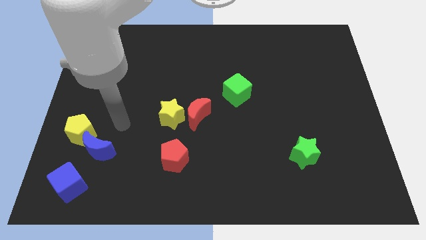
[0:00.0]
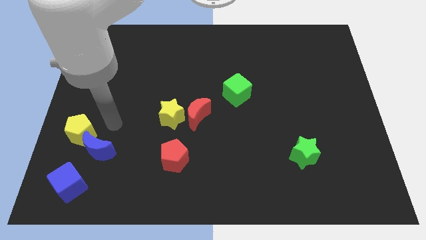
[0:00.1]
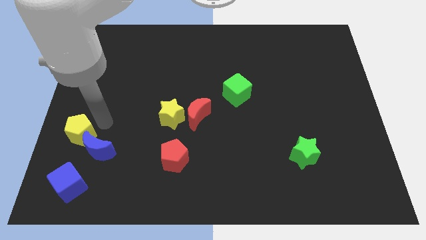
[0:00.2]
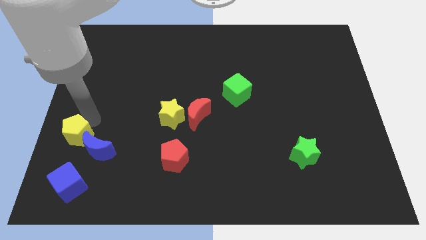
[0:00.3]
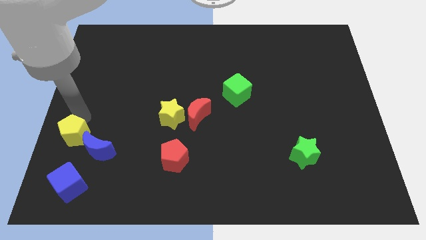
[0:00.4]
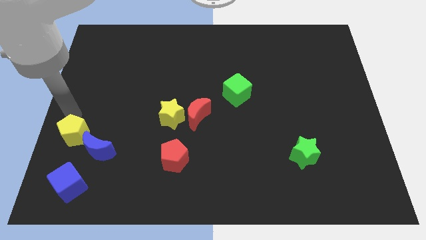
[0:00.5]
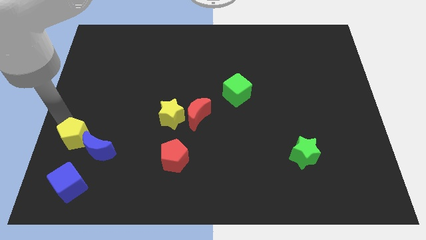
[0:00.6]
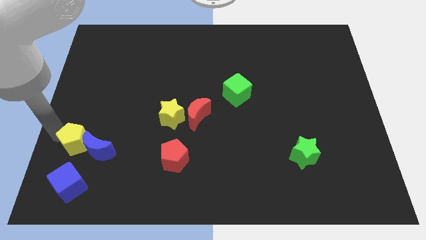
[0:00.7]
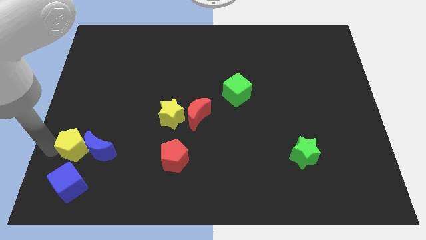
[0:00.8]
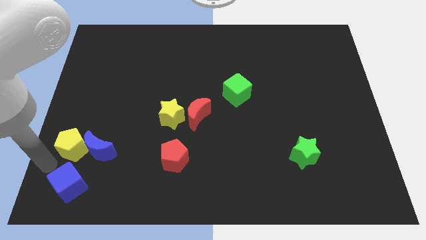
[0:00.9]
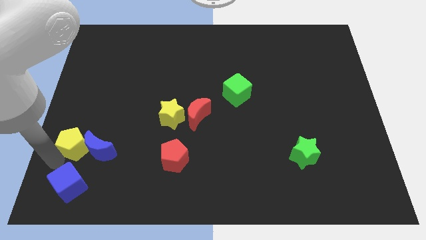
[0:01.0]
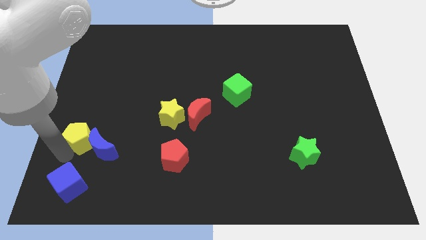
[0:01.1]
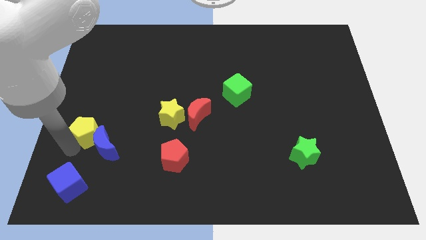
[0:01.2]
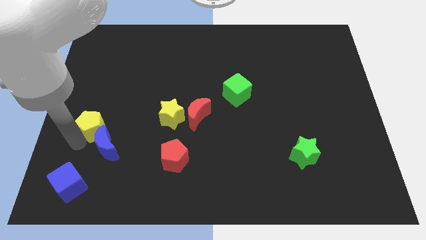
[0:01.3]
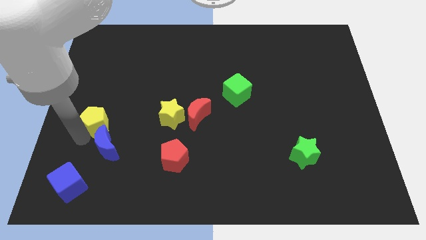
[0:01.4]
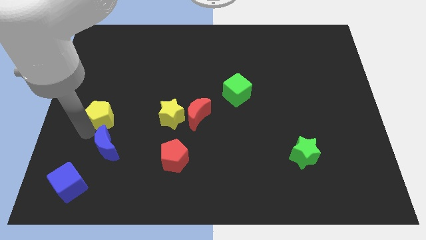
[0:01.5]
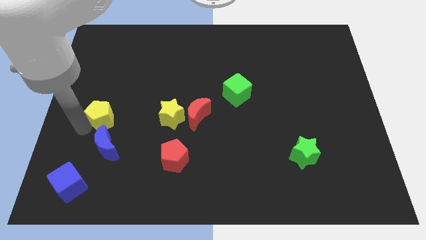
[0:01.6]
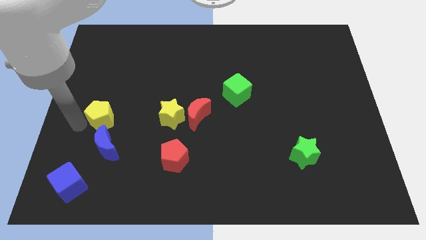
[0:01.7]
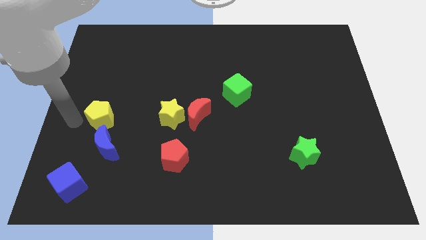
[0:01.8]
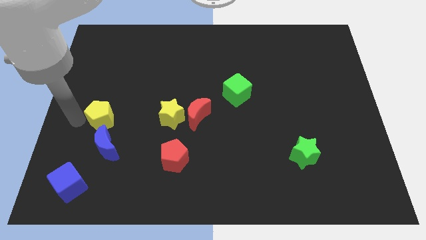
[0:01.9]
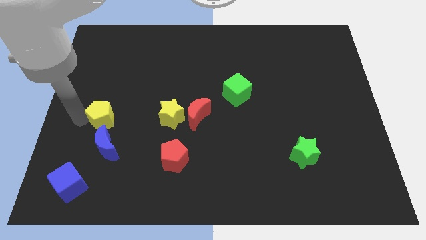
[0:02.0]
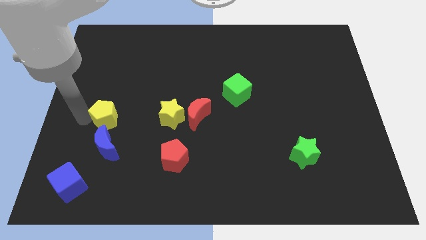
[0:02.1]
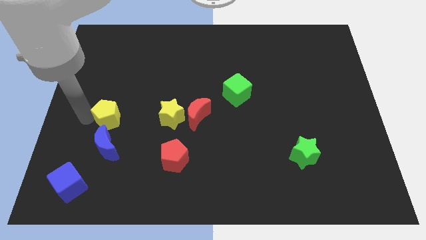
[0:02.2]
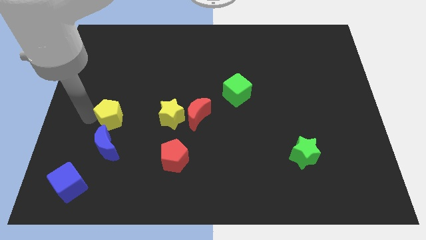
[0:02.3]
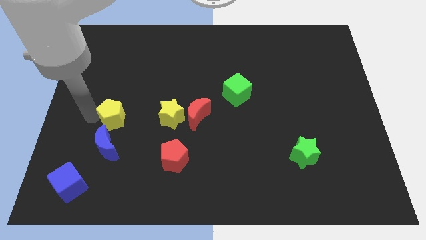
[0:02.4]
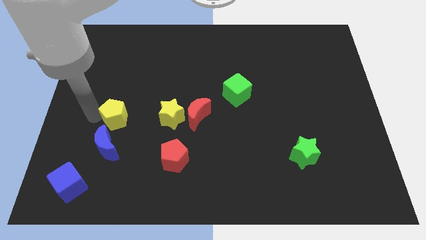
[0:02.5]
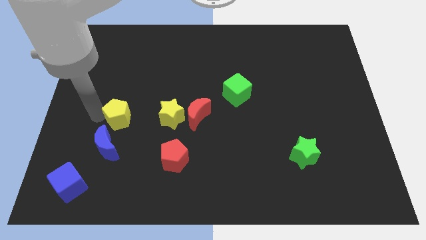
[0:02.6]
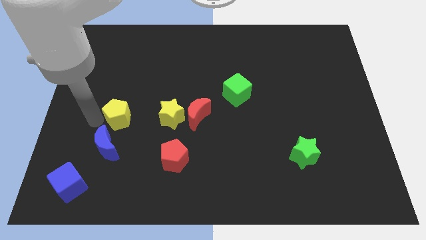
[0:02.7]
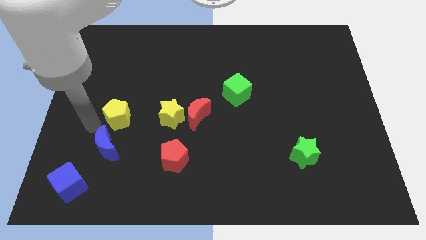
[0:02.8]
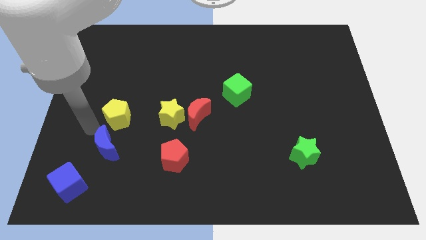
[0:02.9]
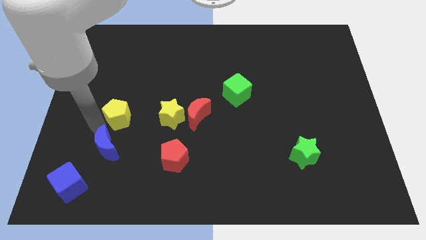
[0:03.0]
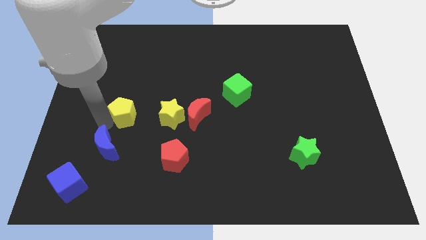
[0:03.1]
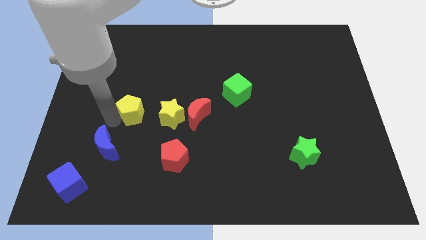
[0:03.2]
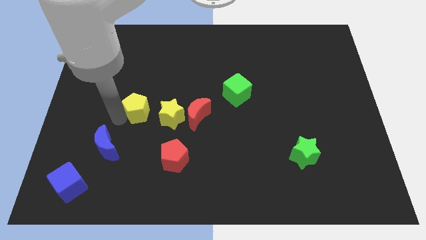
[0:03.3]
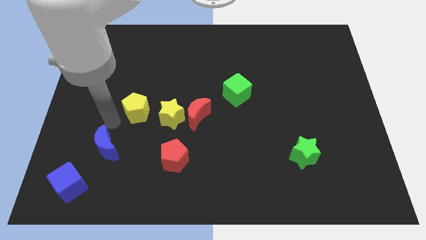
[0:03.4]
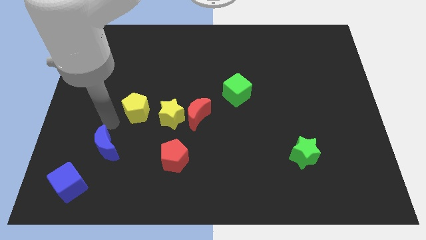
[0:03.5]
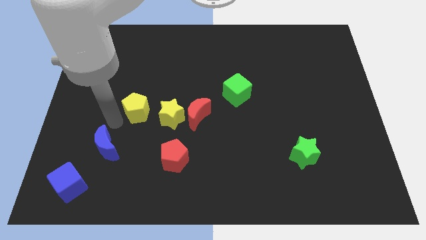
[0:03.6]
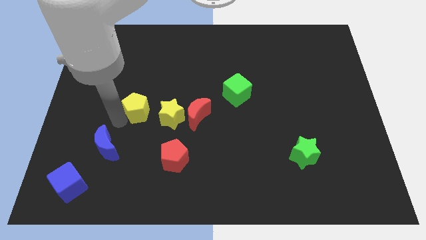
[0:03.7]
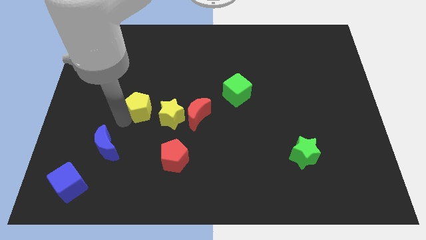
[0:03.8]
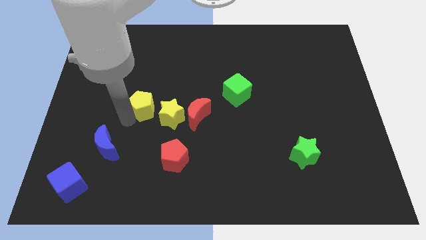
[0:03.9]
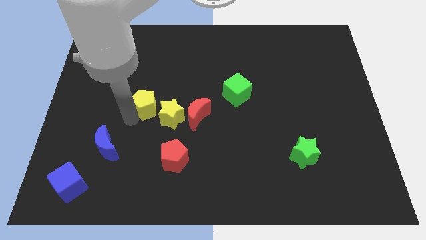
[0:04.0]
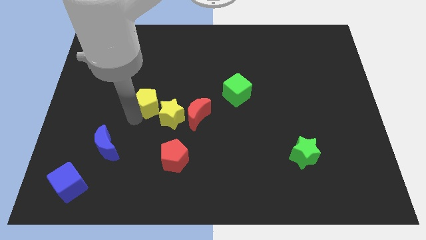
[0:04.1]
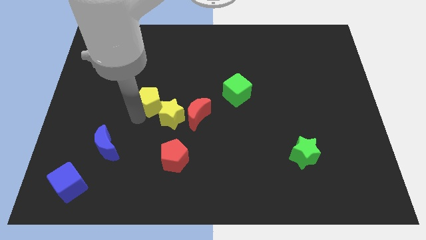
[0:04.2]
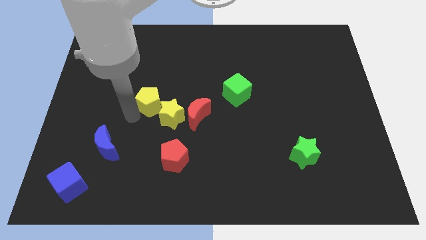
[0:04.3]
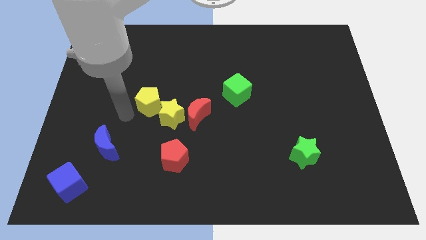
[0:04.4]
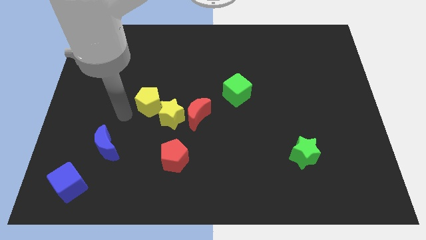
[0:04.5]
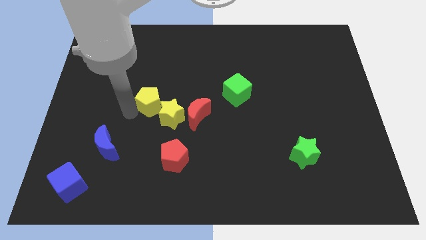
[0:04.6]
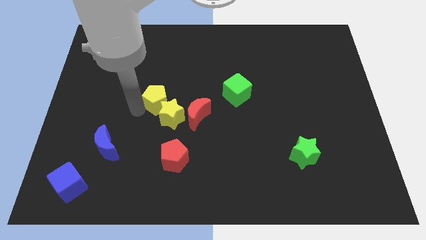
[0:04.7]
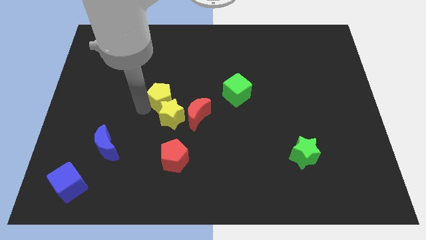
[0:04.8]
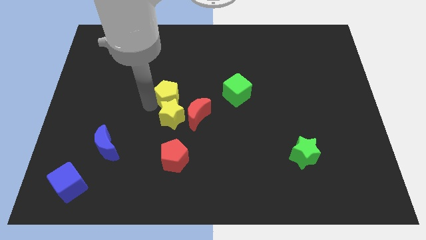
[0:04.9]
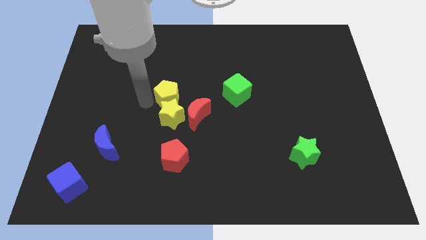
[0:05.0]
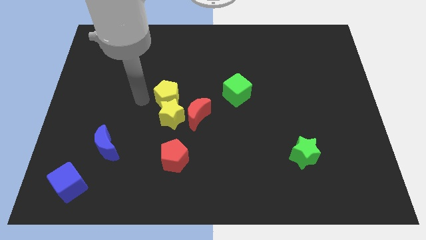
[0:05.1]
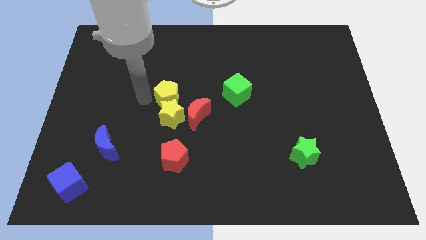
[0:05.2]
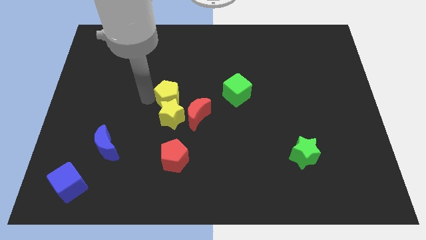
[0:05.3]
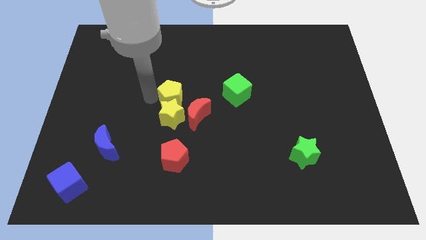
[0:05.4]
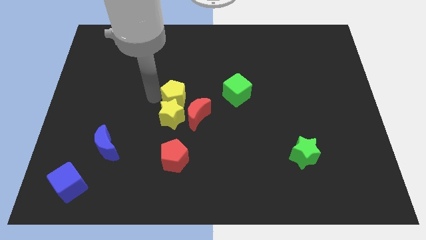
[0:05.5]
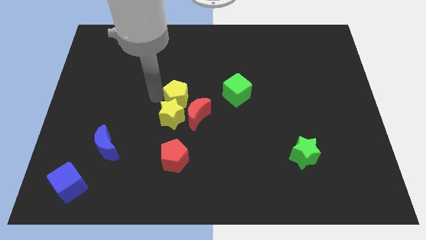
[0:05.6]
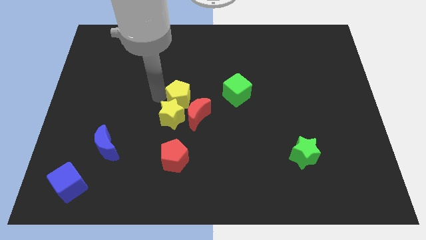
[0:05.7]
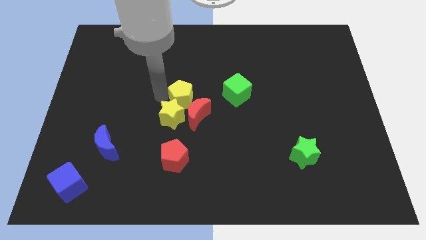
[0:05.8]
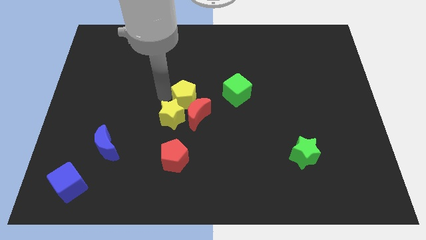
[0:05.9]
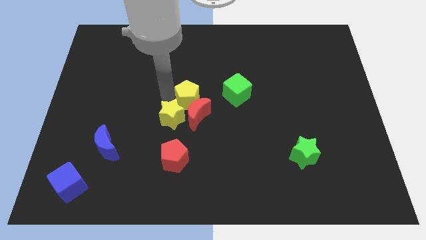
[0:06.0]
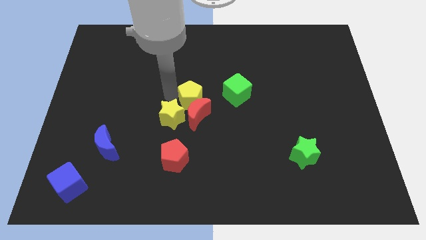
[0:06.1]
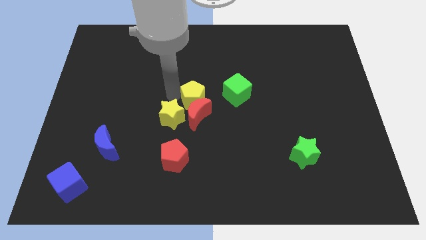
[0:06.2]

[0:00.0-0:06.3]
push the yellow pentagon to the right

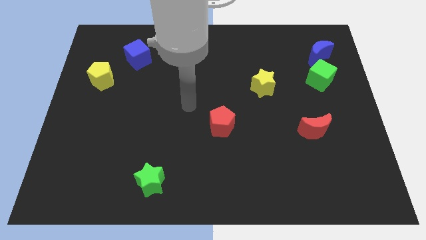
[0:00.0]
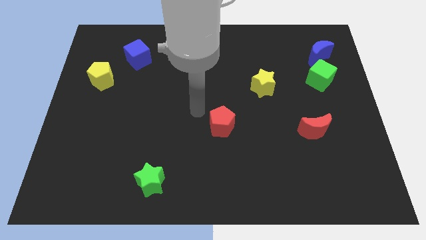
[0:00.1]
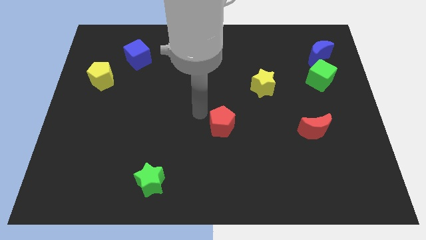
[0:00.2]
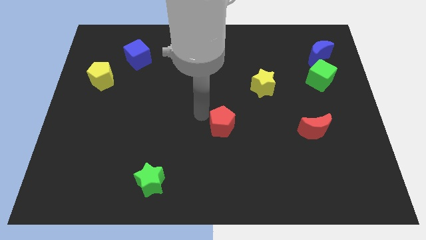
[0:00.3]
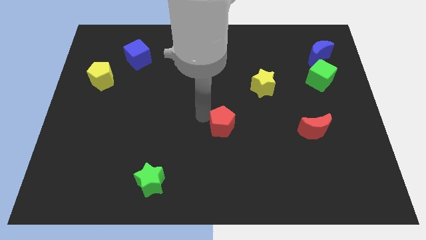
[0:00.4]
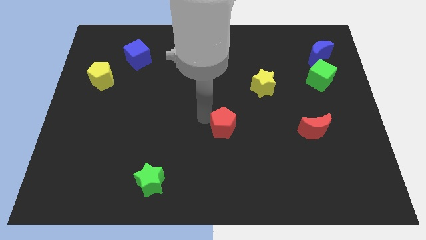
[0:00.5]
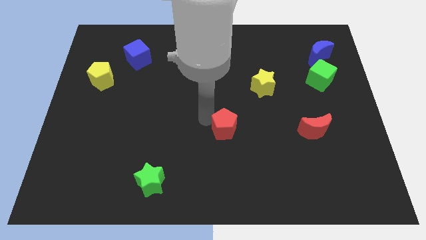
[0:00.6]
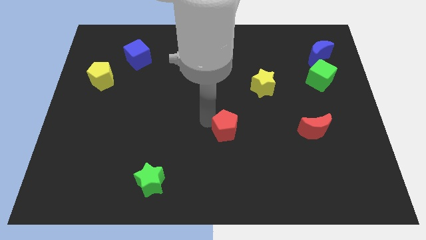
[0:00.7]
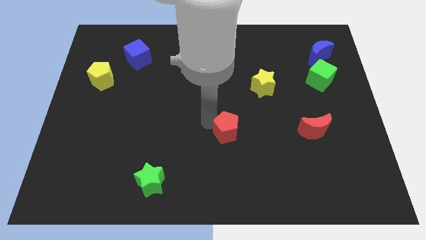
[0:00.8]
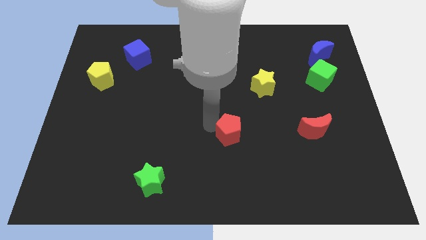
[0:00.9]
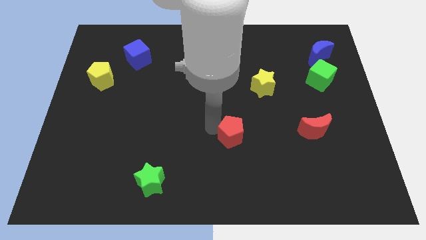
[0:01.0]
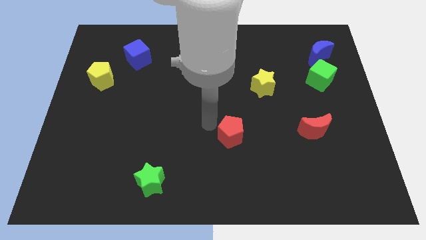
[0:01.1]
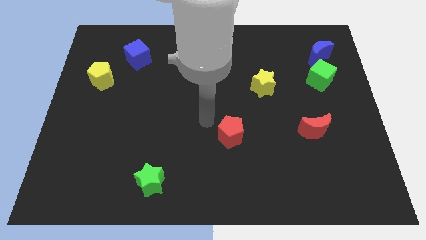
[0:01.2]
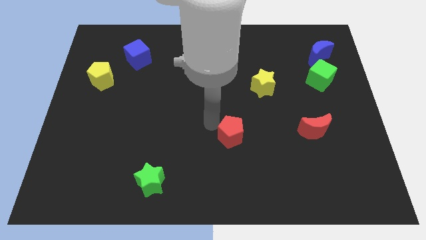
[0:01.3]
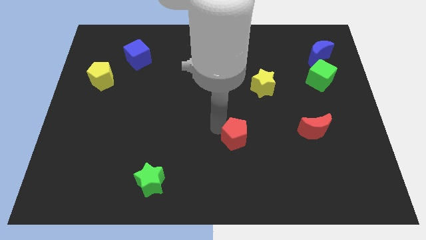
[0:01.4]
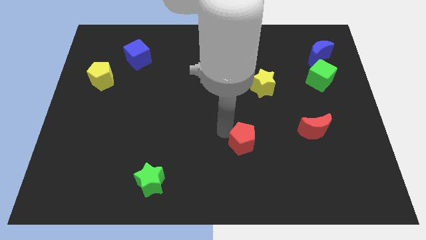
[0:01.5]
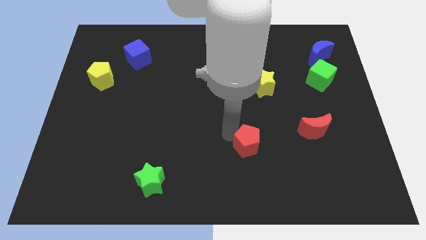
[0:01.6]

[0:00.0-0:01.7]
slightly slide the red pentagon downwards and then right

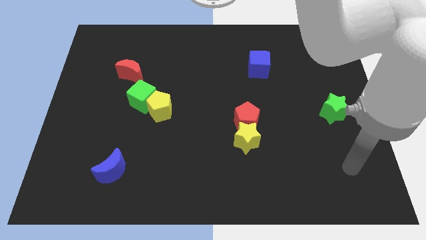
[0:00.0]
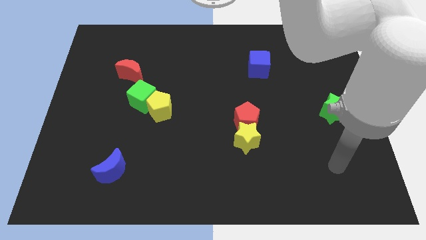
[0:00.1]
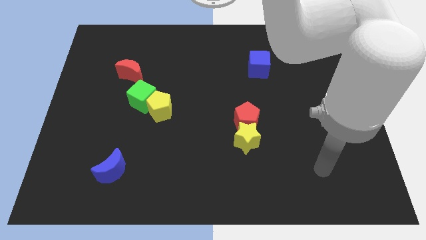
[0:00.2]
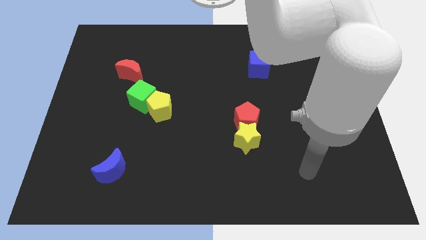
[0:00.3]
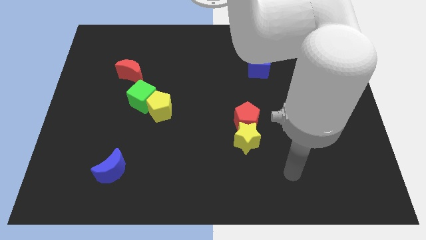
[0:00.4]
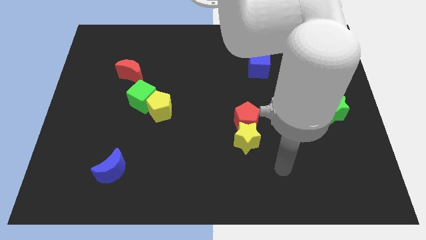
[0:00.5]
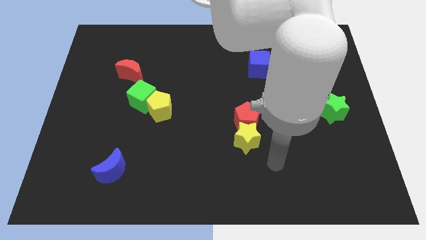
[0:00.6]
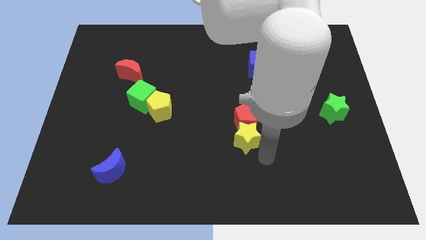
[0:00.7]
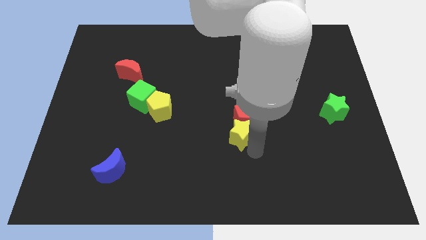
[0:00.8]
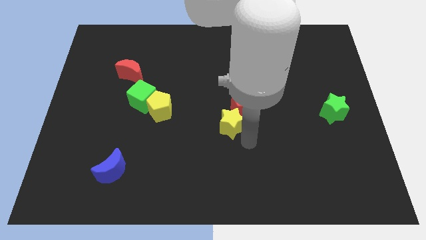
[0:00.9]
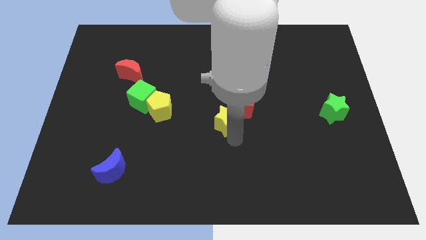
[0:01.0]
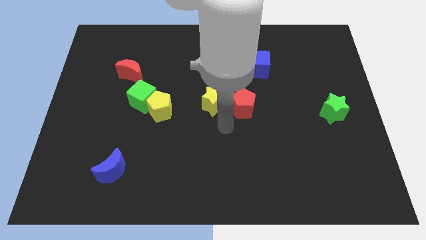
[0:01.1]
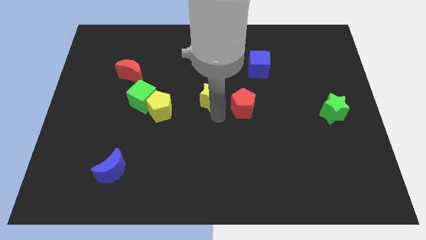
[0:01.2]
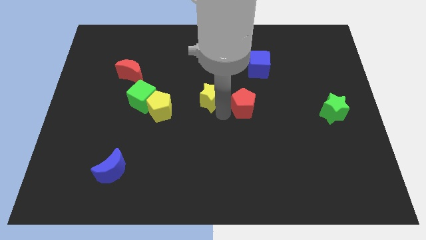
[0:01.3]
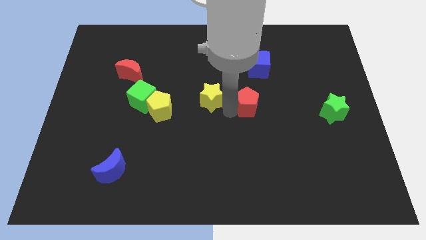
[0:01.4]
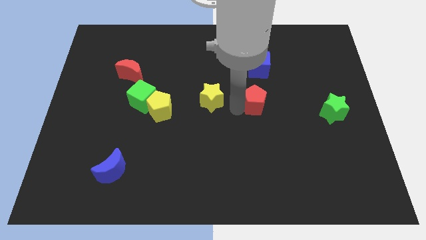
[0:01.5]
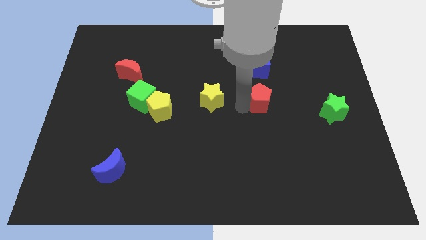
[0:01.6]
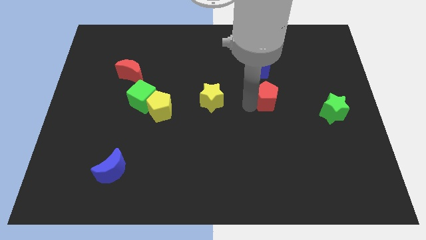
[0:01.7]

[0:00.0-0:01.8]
slightly push the red pentagon upwards and to the right
